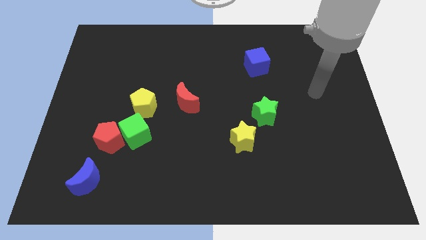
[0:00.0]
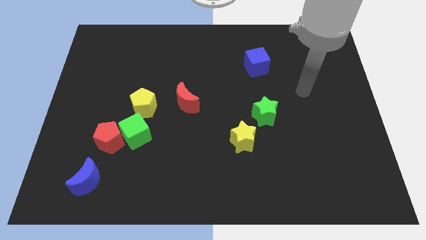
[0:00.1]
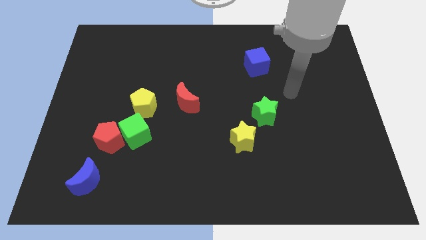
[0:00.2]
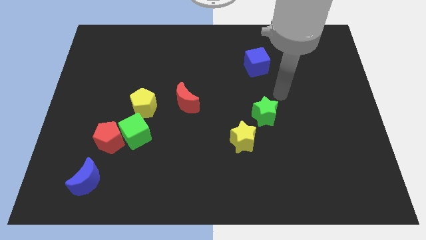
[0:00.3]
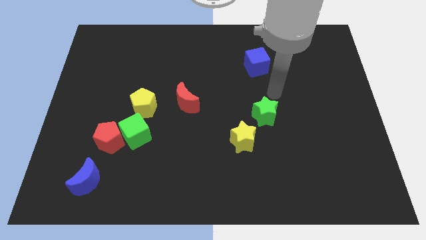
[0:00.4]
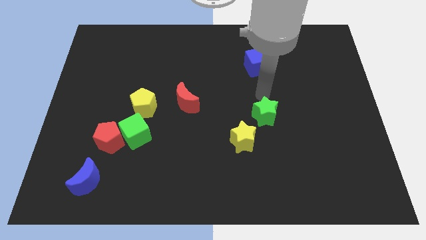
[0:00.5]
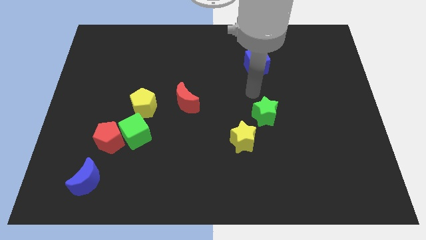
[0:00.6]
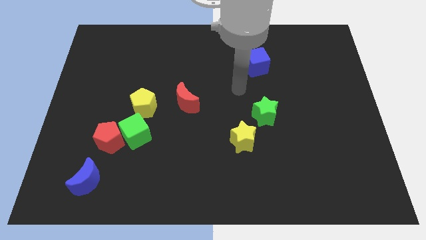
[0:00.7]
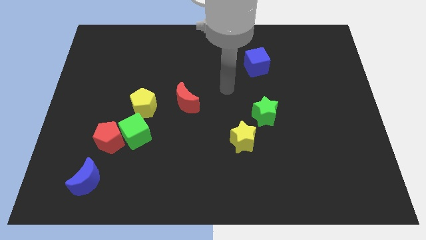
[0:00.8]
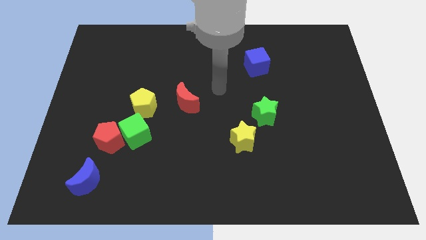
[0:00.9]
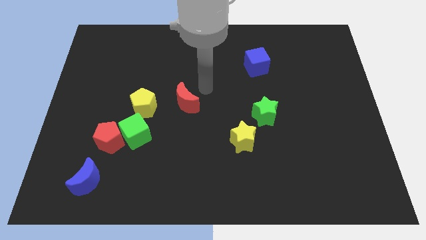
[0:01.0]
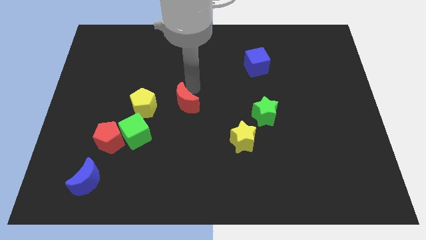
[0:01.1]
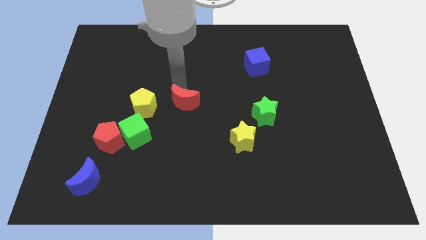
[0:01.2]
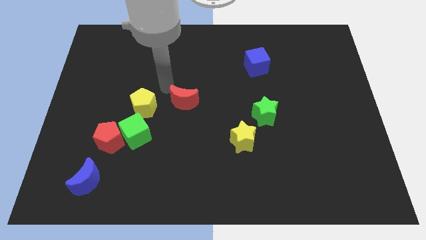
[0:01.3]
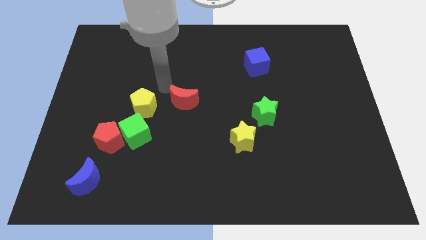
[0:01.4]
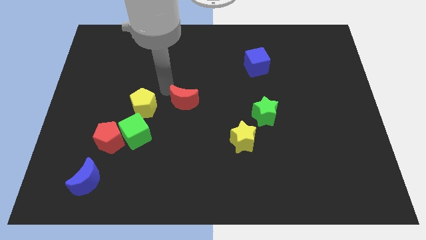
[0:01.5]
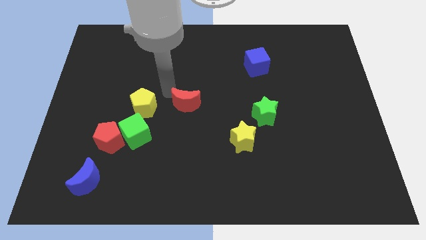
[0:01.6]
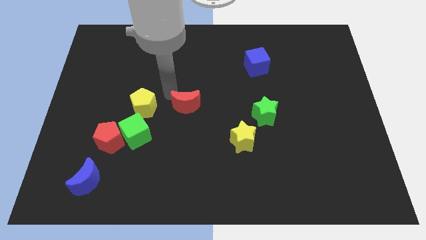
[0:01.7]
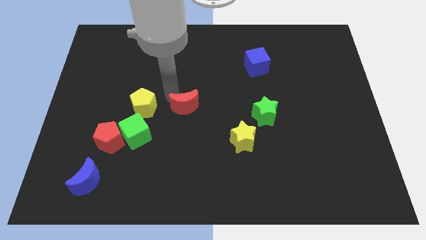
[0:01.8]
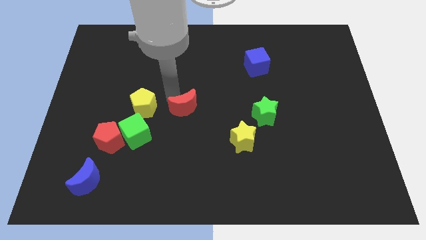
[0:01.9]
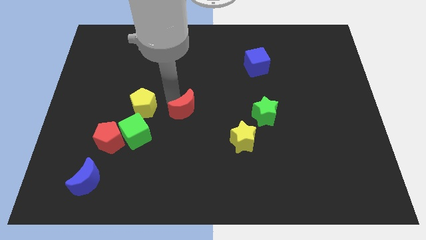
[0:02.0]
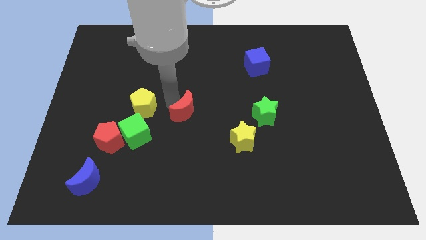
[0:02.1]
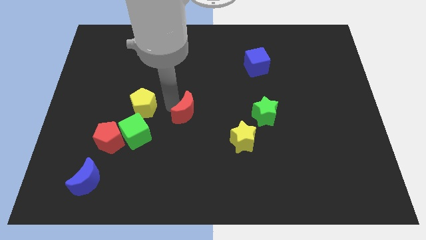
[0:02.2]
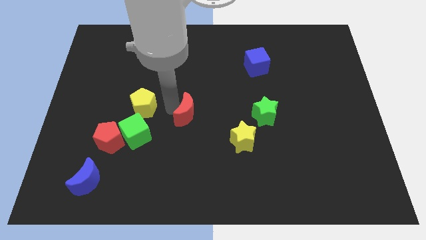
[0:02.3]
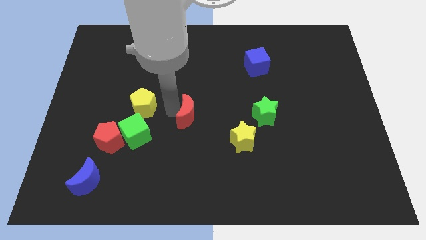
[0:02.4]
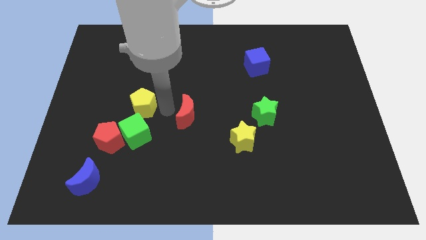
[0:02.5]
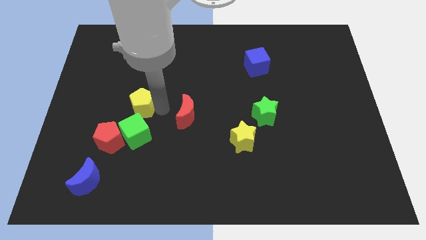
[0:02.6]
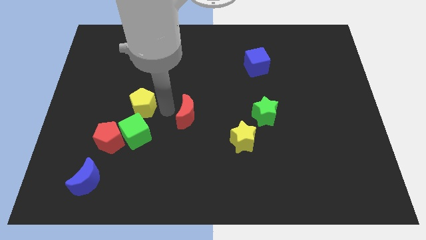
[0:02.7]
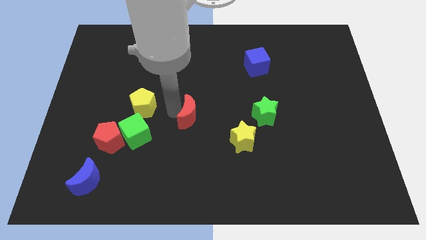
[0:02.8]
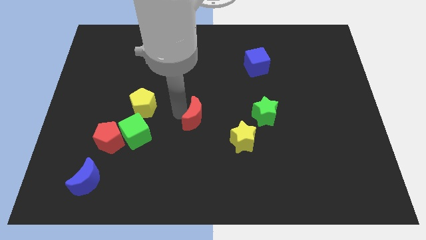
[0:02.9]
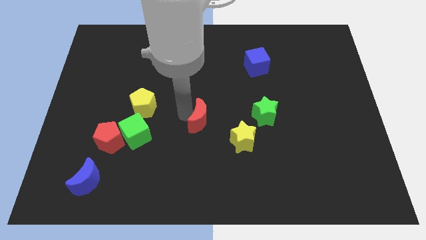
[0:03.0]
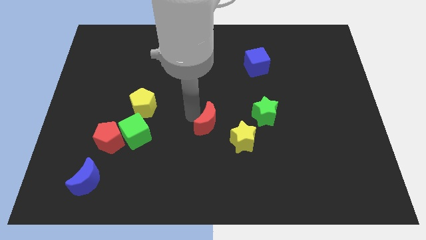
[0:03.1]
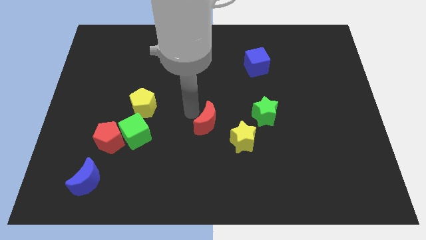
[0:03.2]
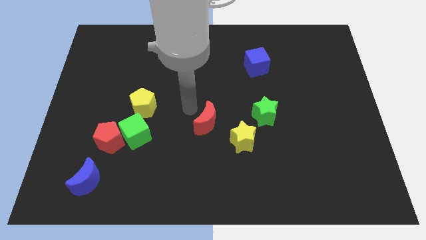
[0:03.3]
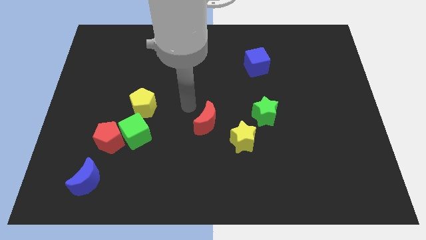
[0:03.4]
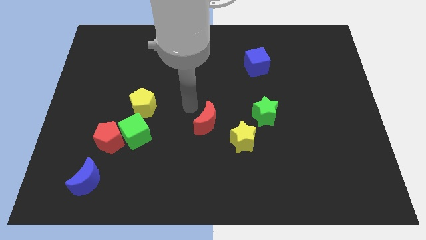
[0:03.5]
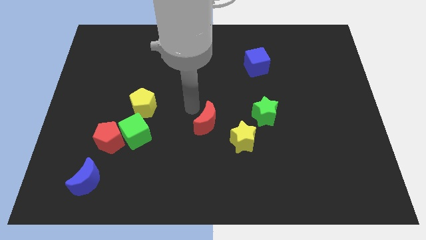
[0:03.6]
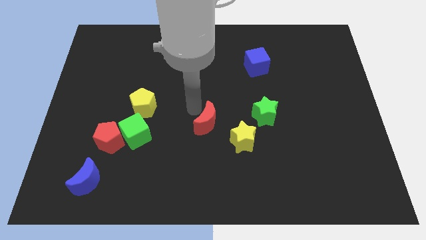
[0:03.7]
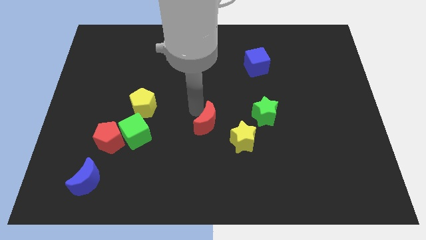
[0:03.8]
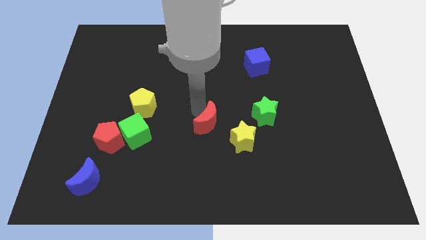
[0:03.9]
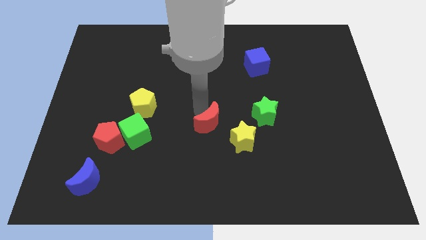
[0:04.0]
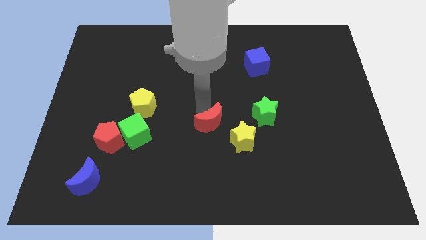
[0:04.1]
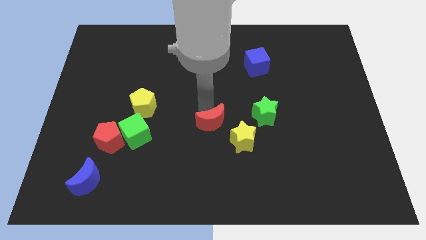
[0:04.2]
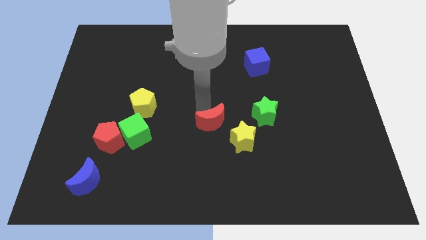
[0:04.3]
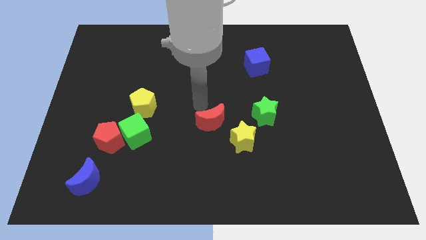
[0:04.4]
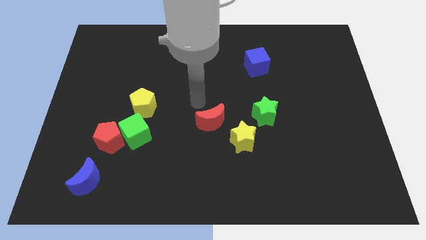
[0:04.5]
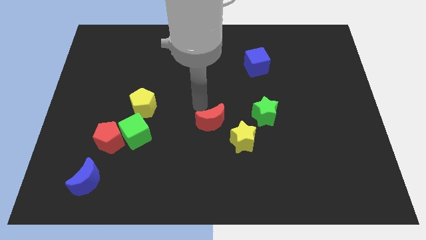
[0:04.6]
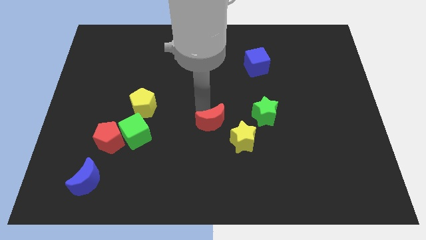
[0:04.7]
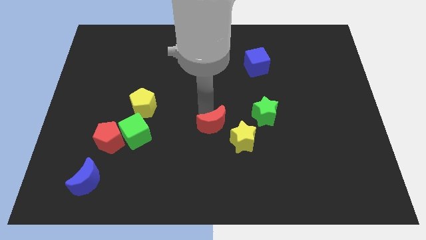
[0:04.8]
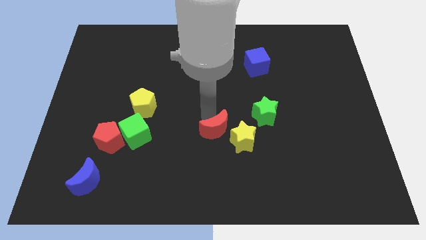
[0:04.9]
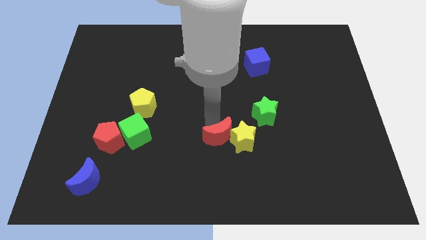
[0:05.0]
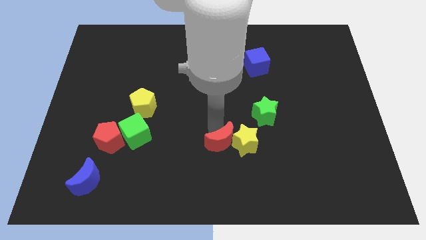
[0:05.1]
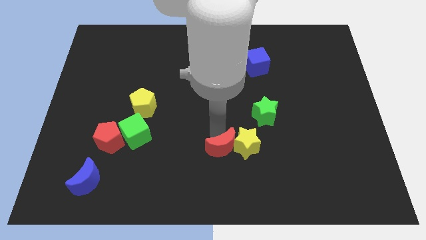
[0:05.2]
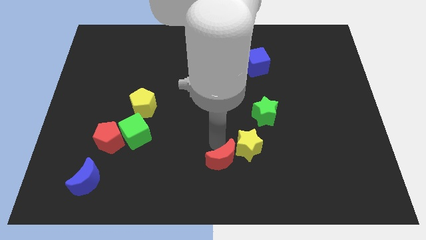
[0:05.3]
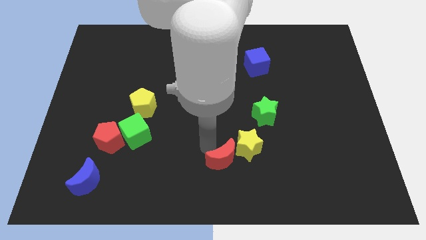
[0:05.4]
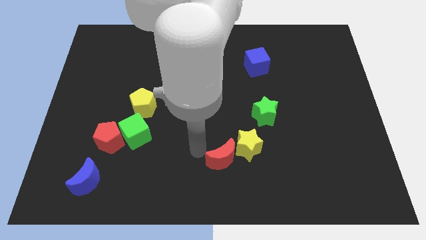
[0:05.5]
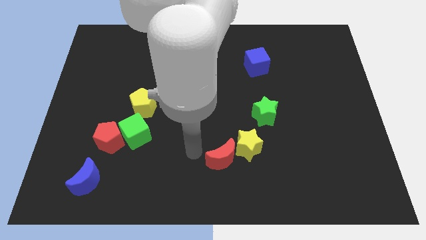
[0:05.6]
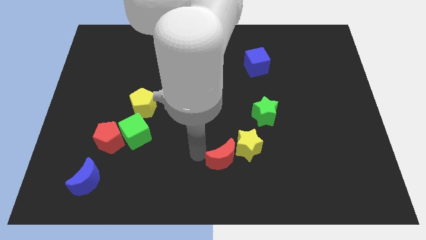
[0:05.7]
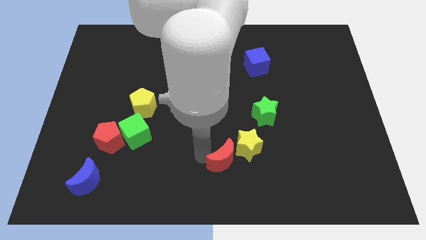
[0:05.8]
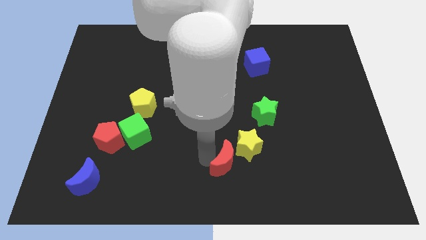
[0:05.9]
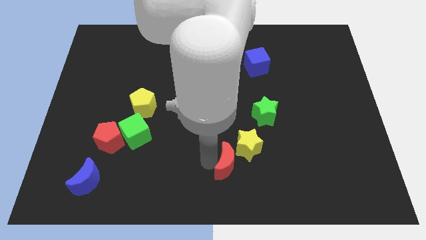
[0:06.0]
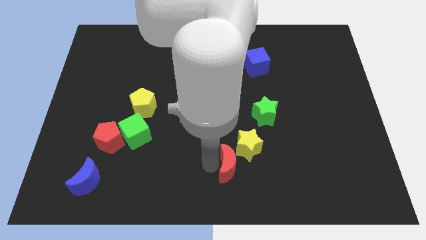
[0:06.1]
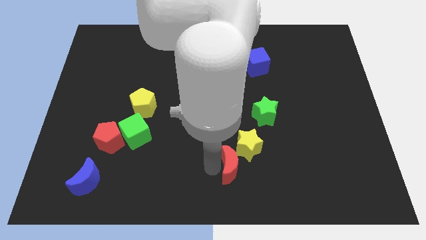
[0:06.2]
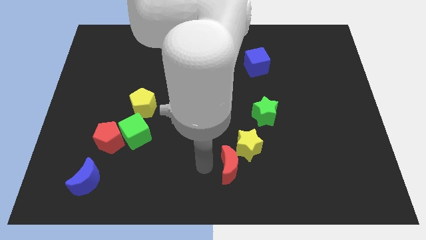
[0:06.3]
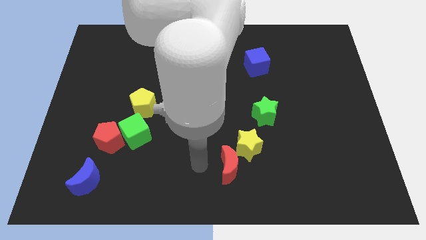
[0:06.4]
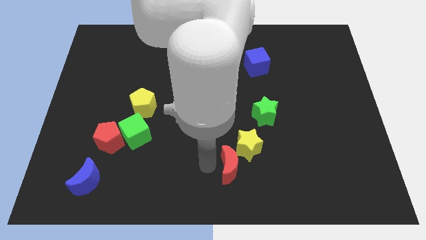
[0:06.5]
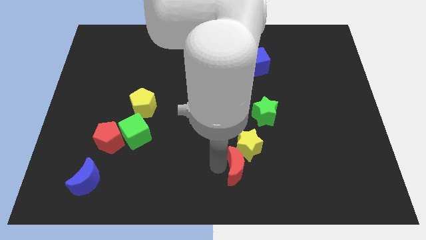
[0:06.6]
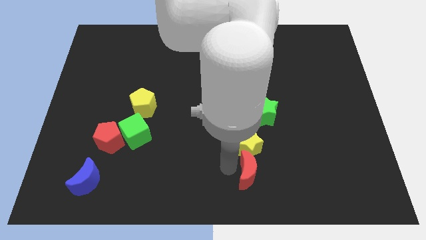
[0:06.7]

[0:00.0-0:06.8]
slide the red moon to the bottom right side of the yellow star

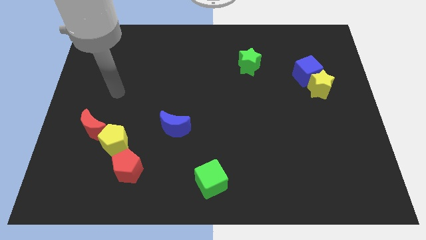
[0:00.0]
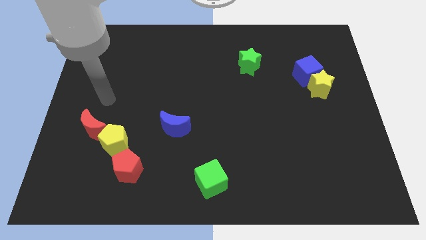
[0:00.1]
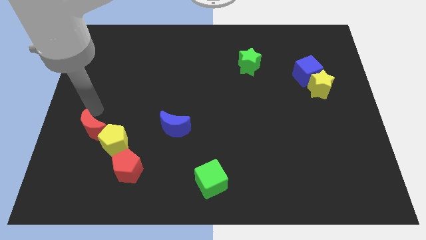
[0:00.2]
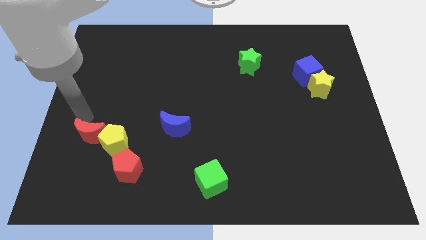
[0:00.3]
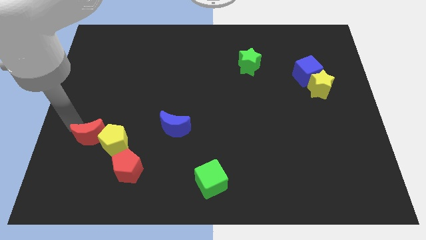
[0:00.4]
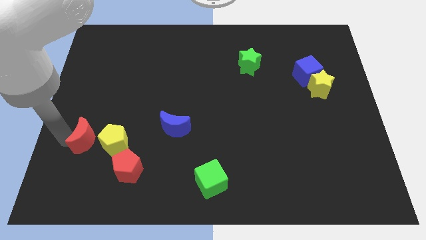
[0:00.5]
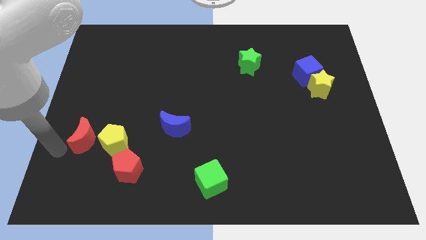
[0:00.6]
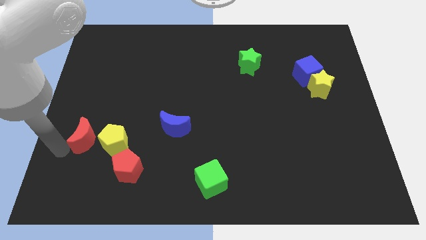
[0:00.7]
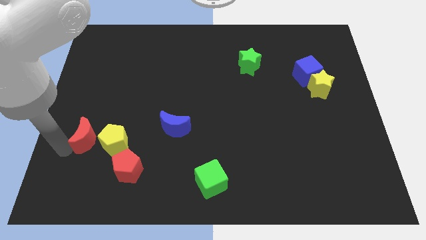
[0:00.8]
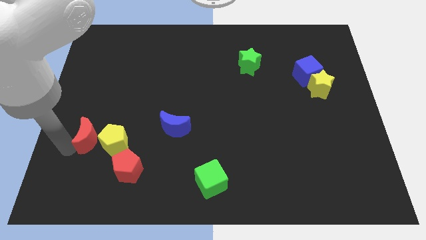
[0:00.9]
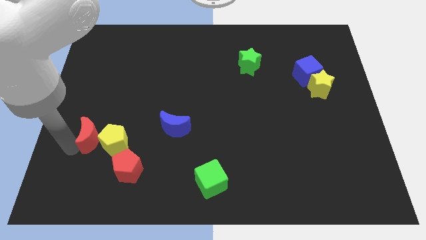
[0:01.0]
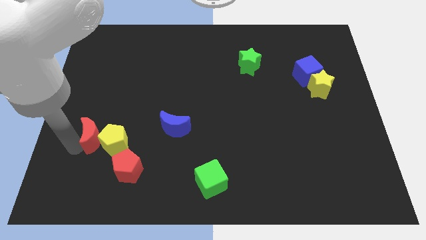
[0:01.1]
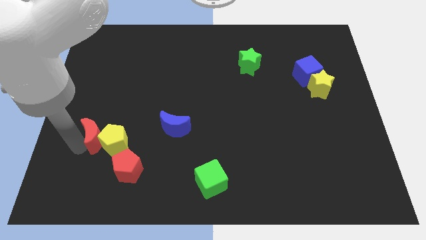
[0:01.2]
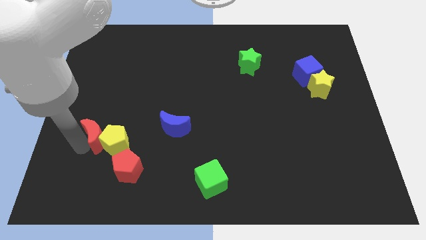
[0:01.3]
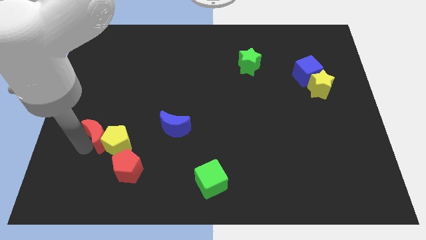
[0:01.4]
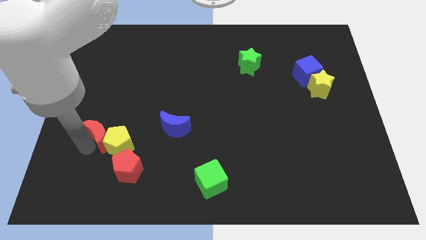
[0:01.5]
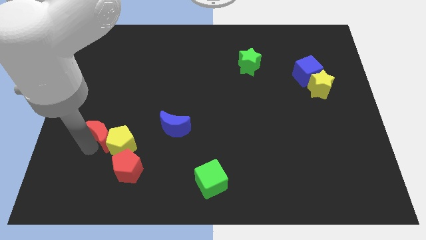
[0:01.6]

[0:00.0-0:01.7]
push the red moon left of the blue moon
